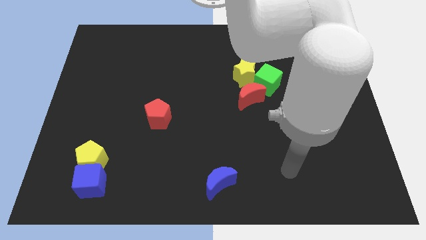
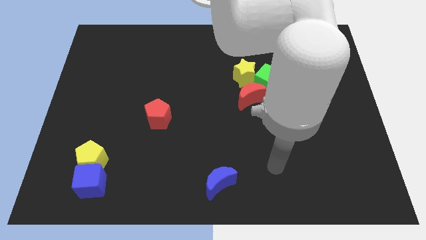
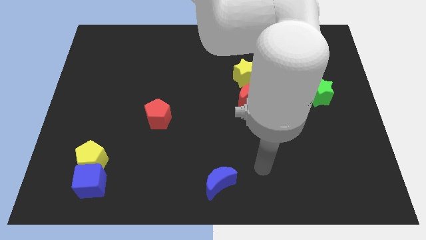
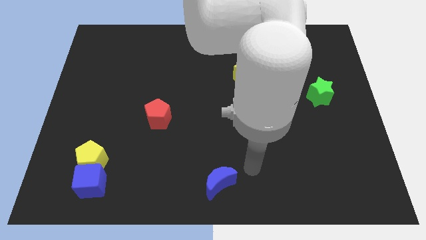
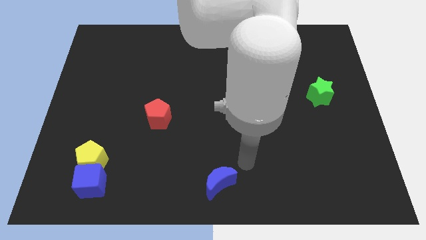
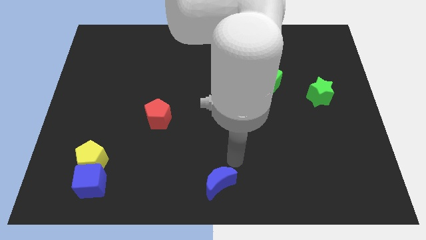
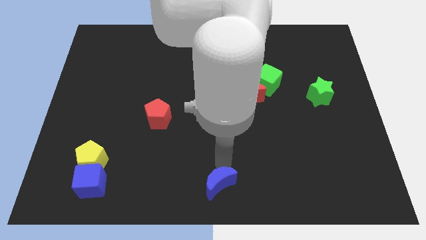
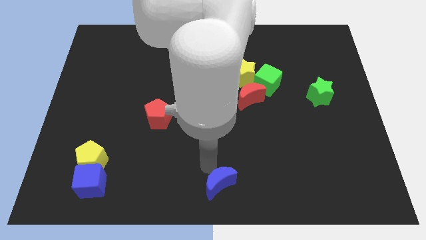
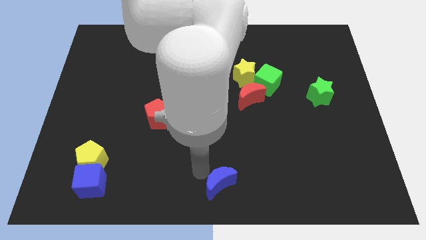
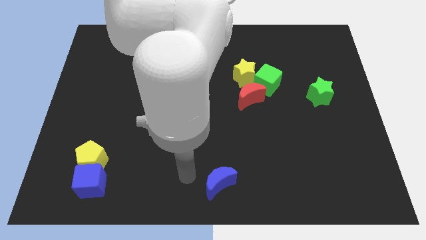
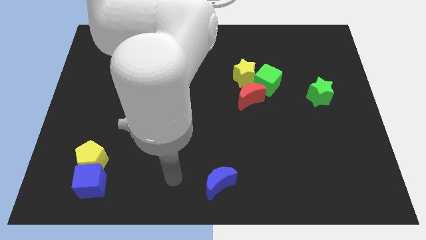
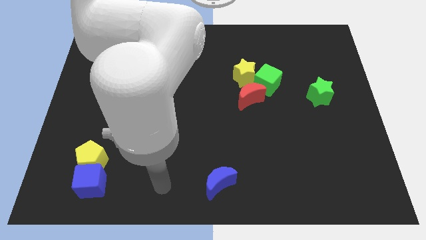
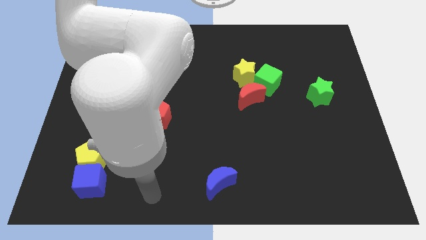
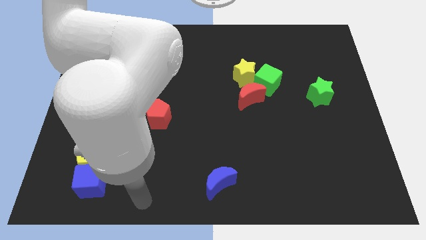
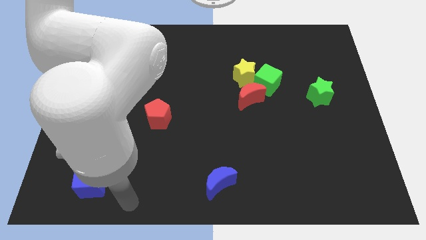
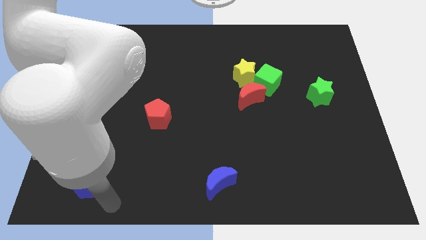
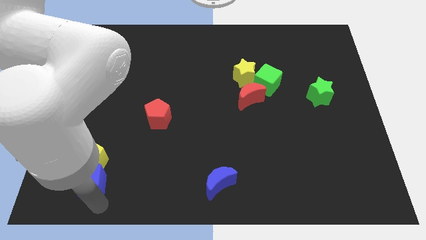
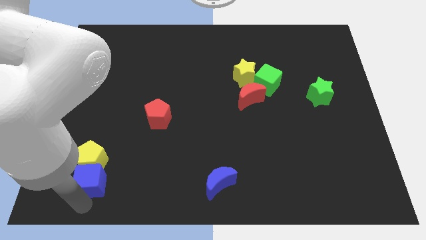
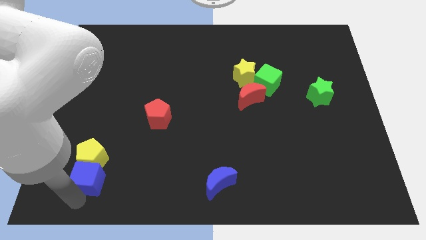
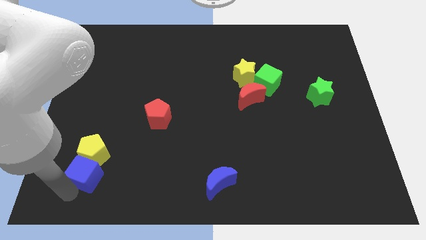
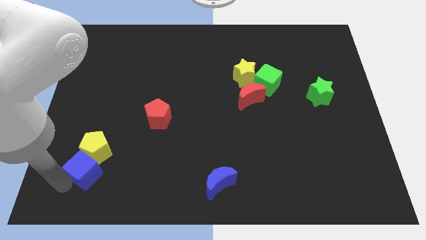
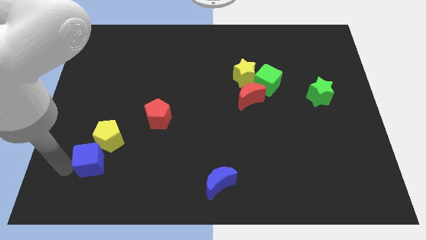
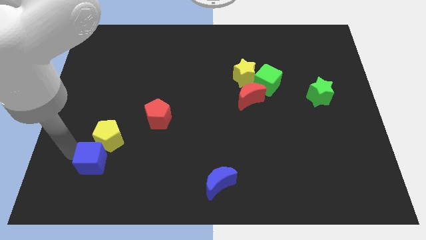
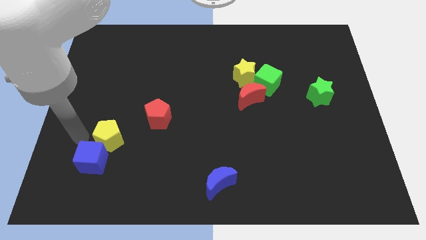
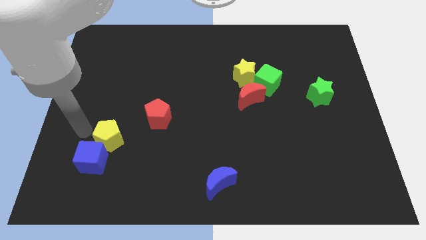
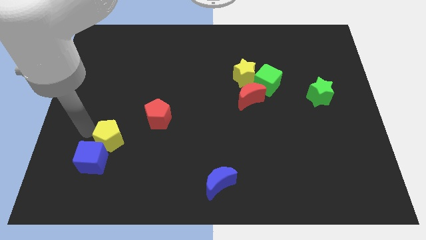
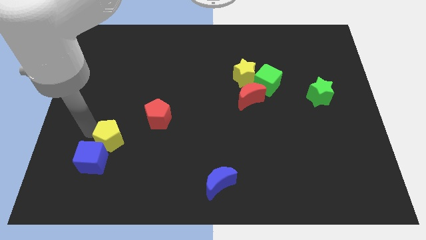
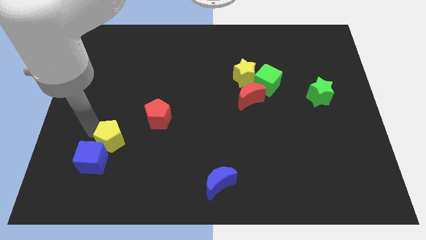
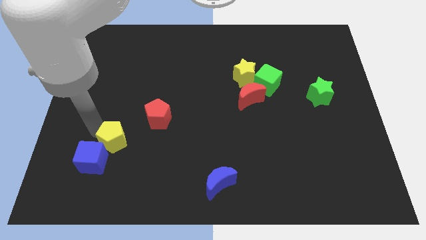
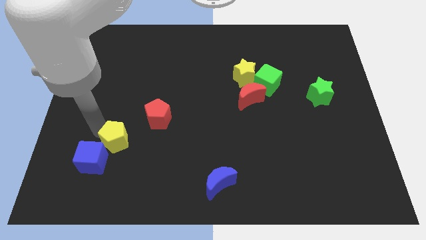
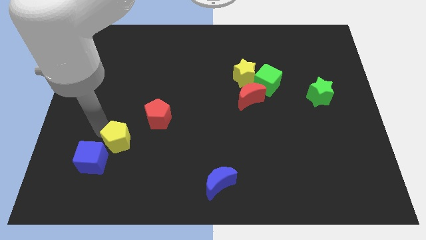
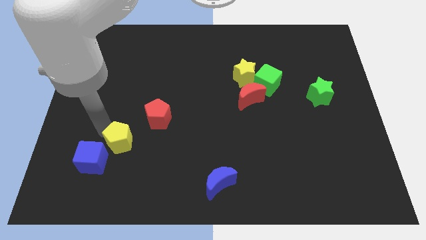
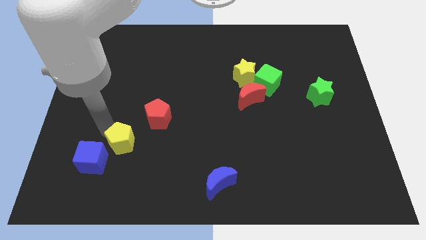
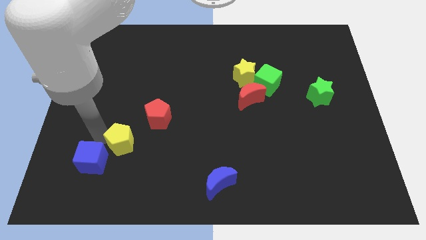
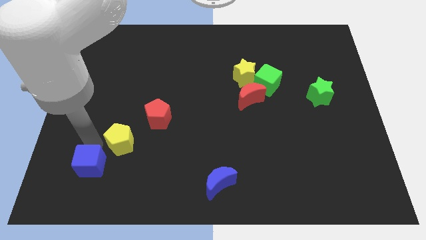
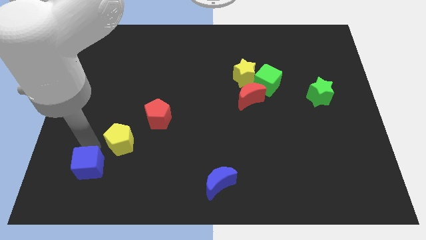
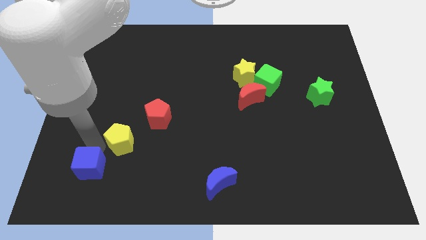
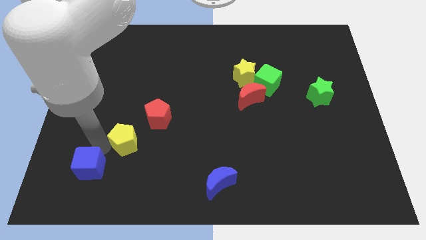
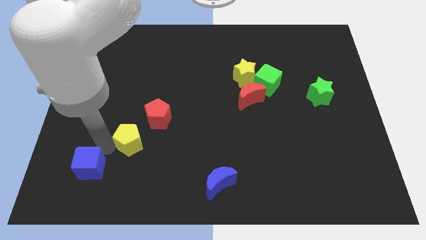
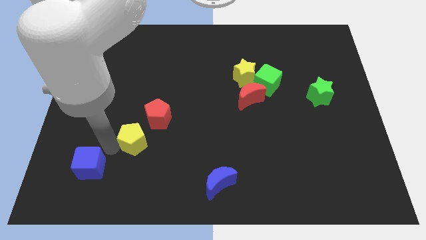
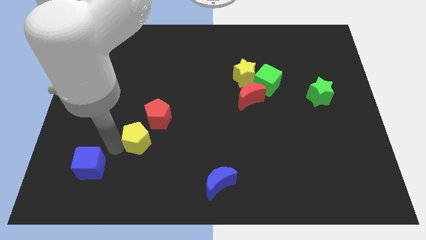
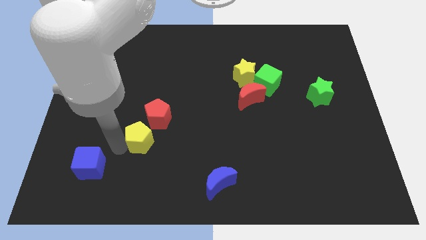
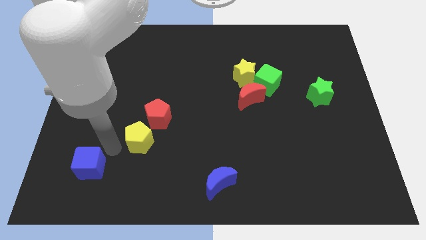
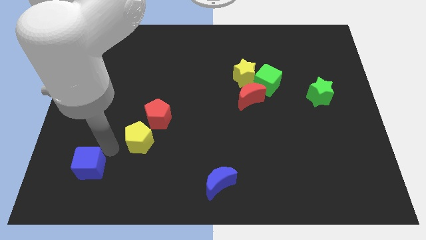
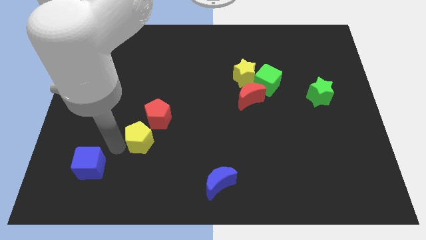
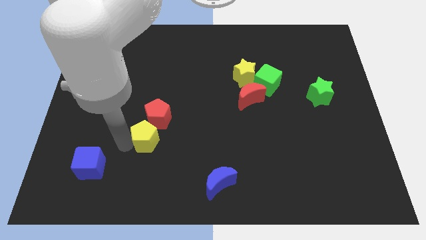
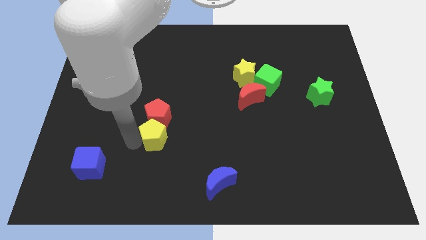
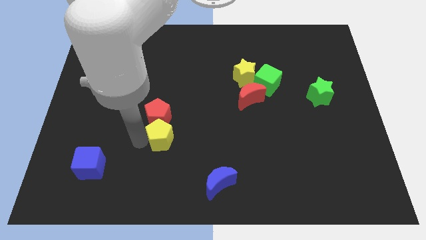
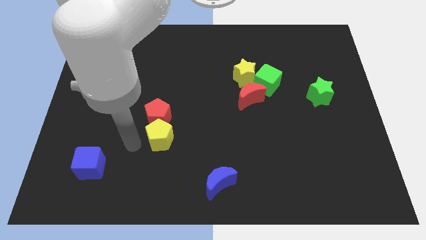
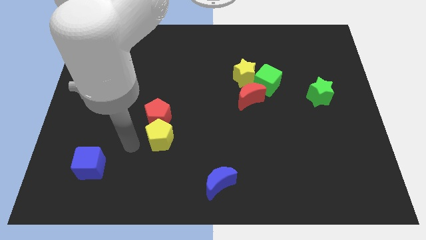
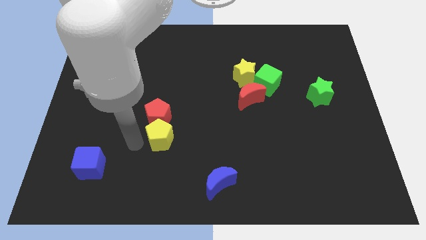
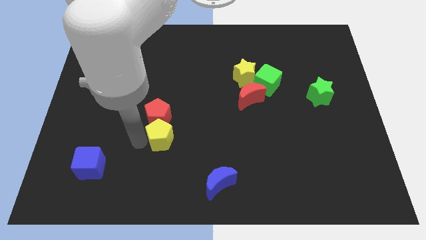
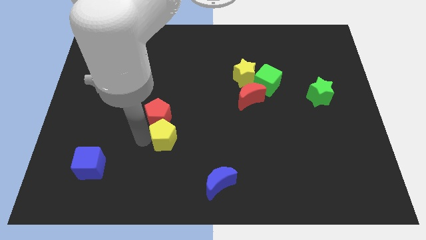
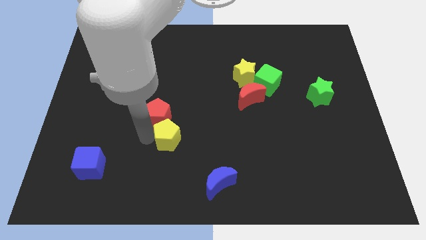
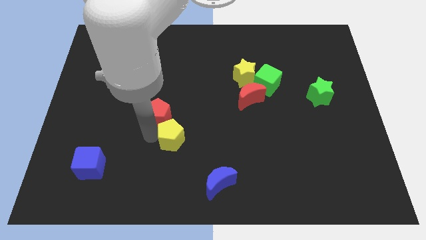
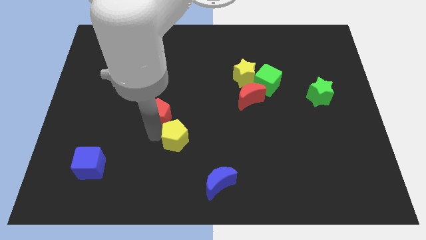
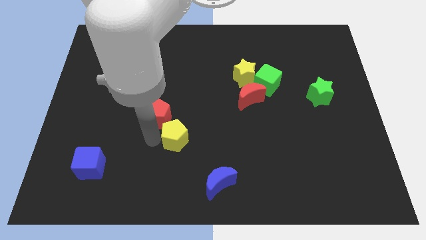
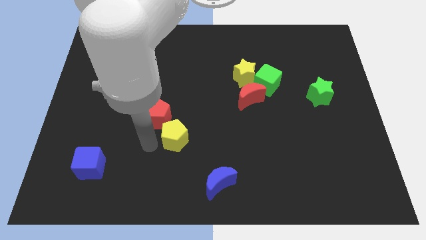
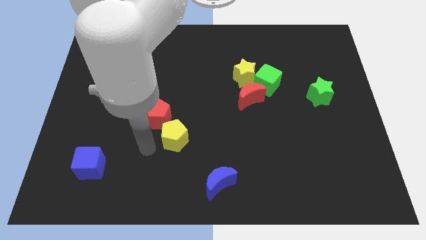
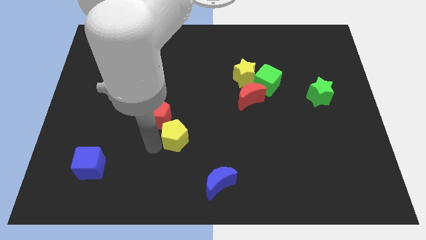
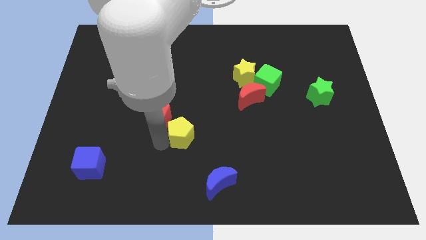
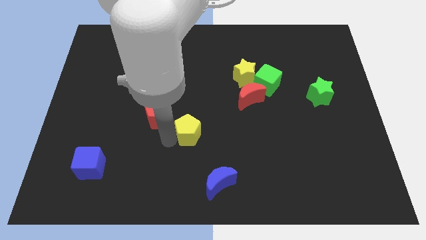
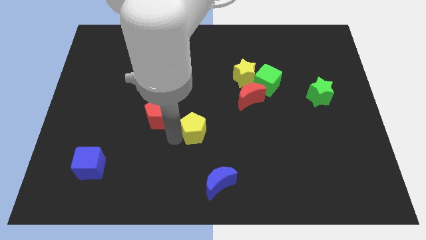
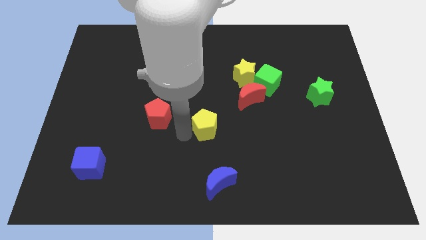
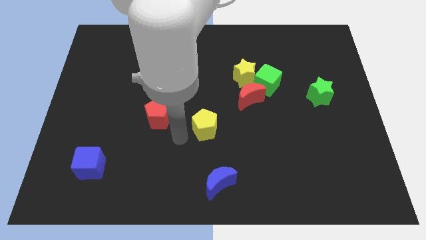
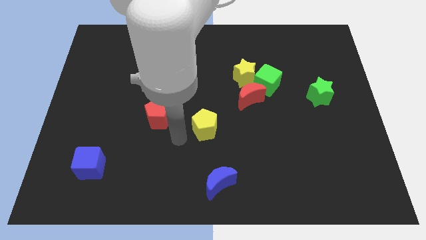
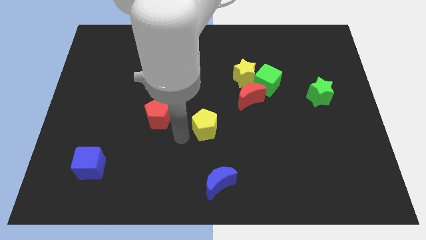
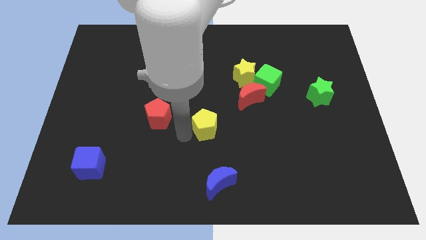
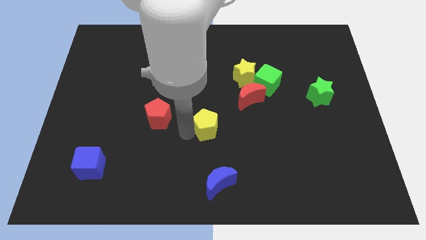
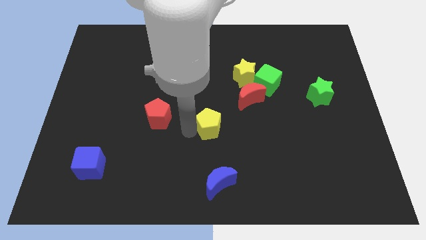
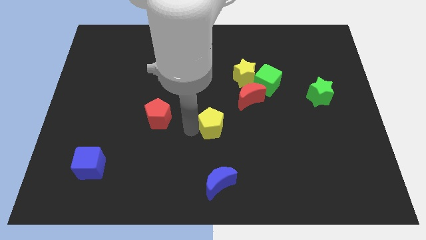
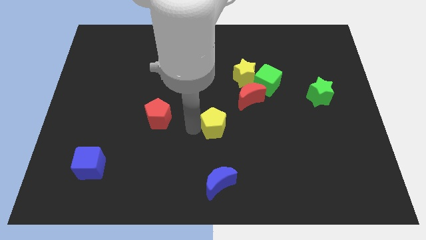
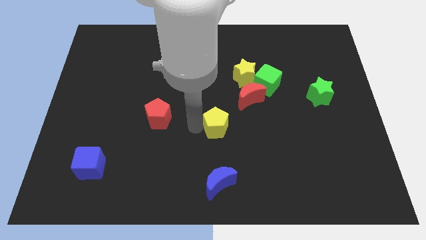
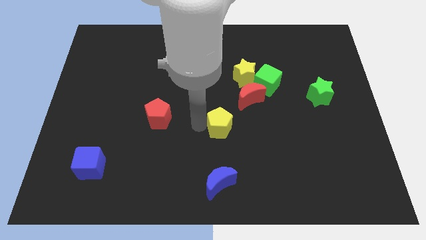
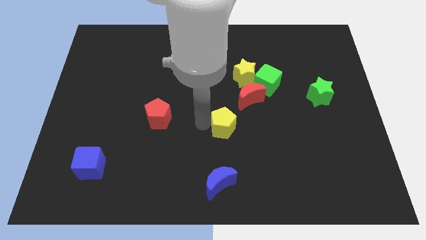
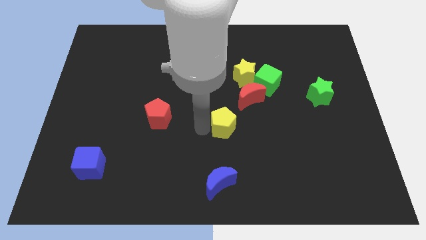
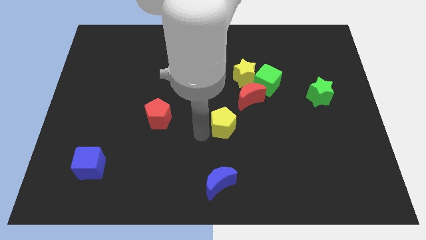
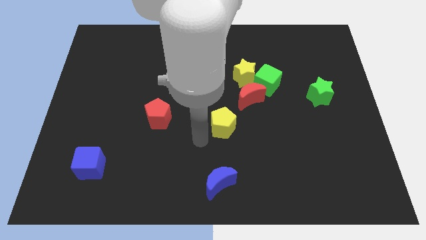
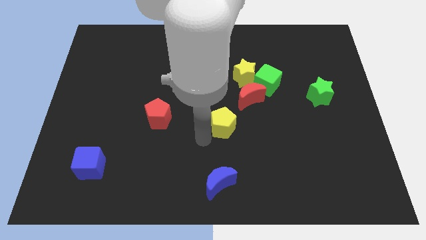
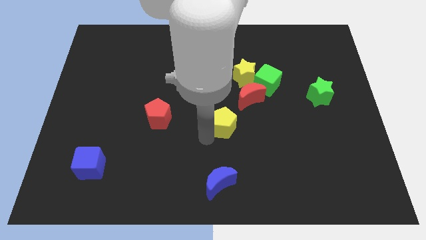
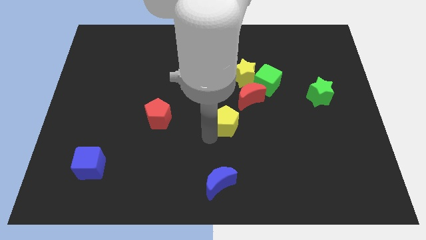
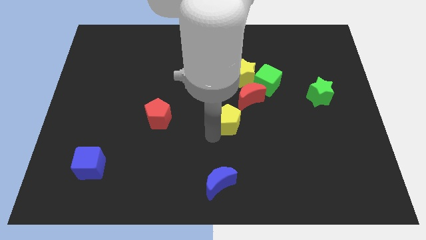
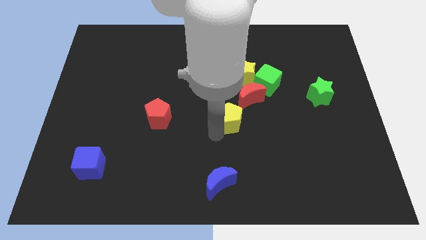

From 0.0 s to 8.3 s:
push the yellow pentagon to the bottom of the yellow star
